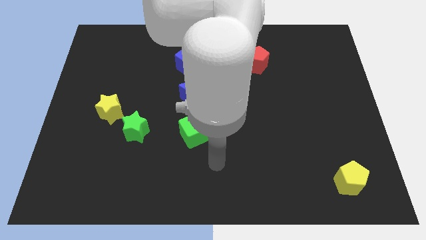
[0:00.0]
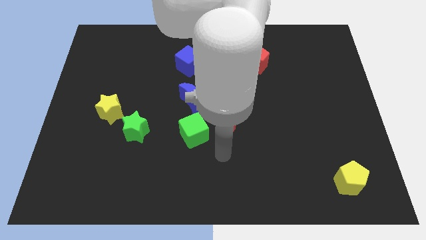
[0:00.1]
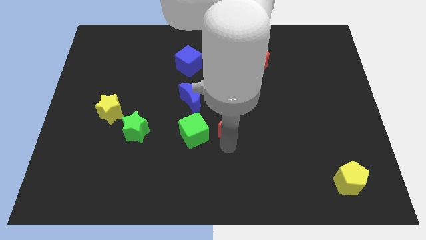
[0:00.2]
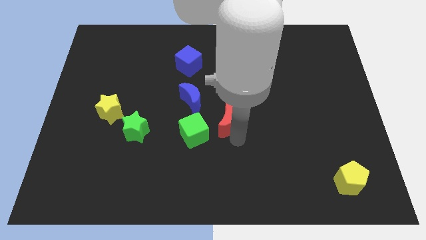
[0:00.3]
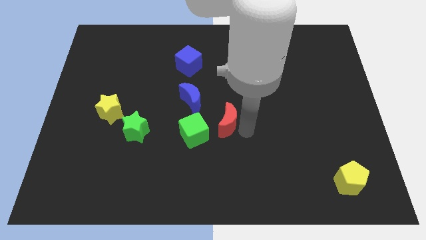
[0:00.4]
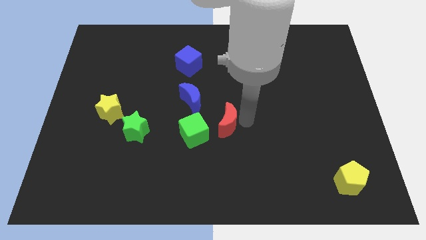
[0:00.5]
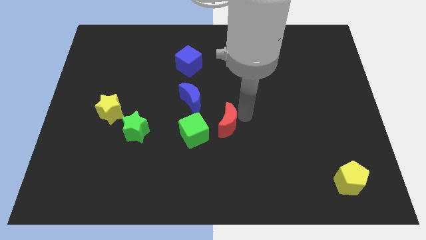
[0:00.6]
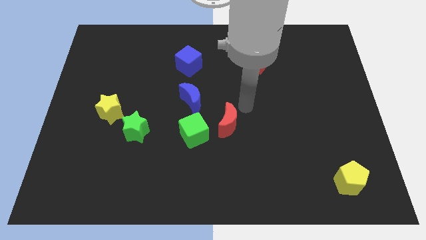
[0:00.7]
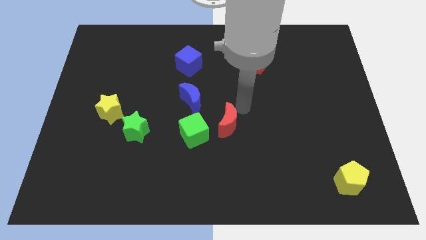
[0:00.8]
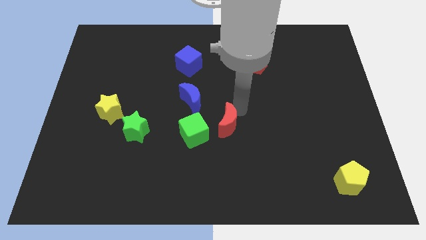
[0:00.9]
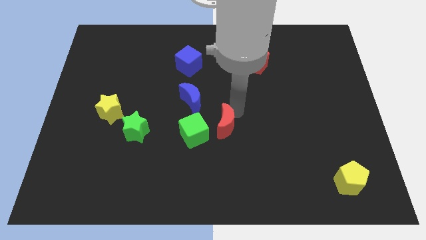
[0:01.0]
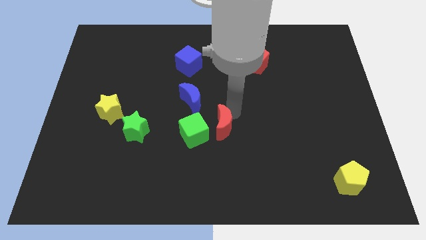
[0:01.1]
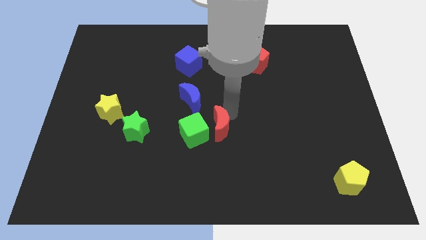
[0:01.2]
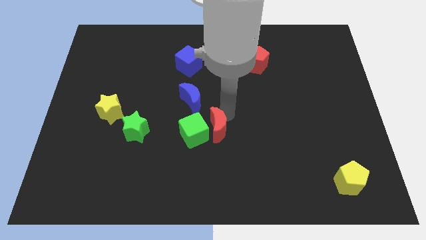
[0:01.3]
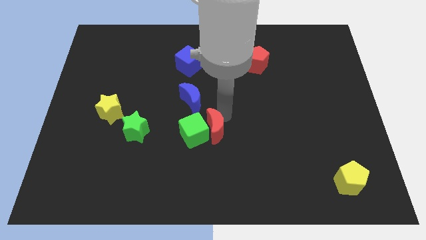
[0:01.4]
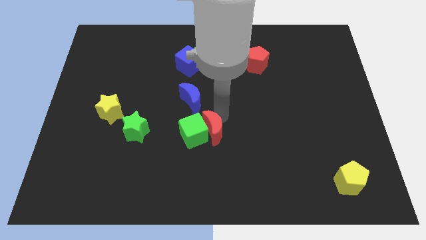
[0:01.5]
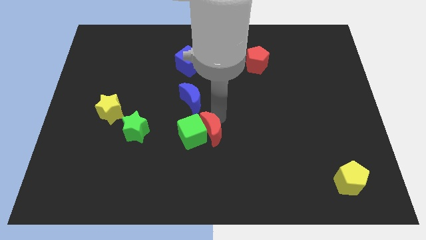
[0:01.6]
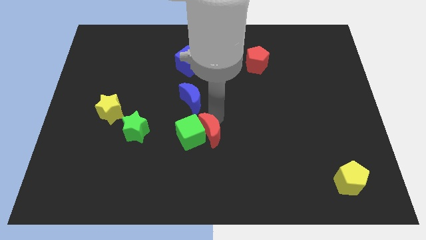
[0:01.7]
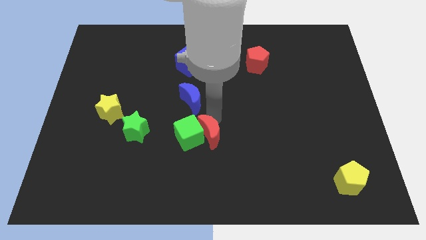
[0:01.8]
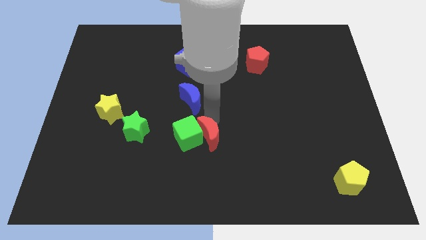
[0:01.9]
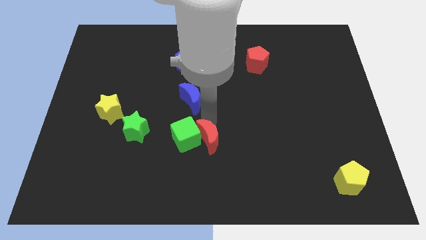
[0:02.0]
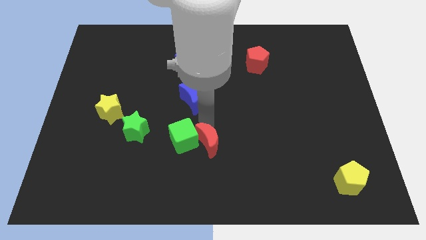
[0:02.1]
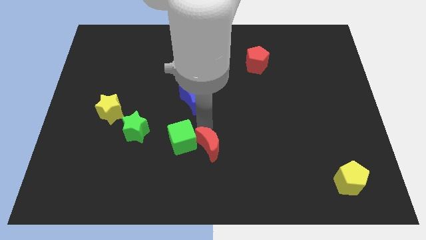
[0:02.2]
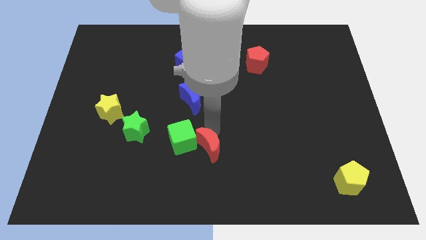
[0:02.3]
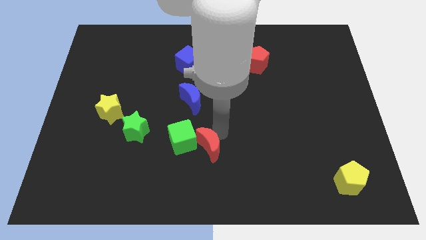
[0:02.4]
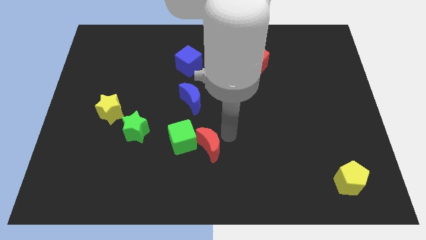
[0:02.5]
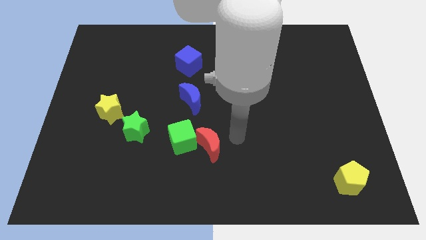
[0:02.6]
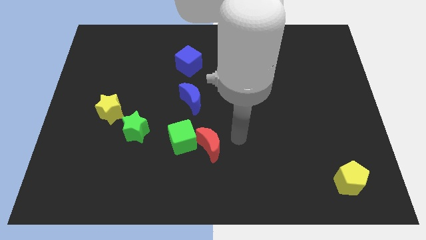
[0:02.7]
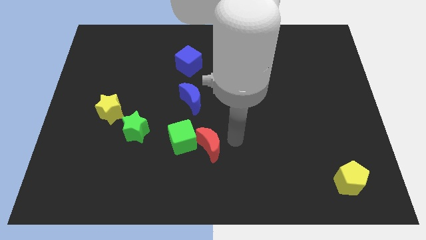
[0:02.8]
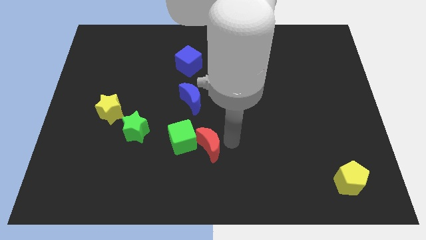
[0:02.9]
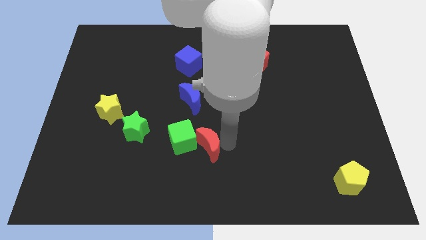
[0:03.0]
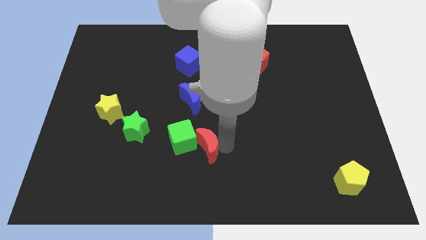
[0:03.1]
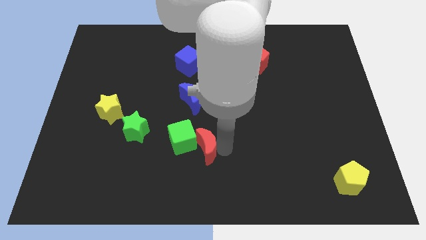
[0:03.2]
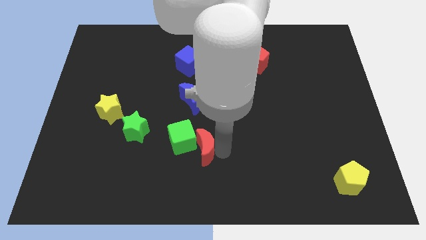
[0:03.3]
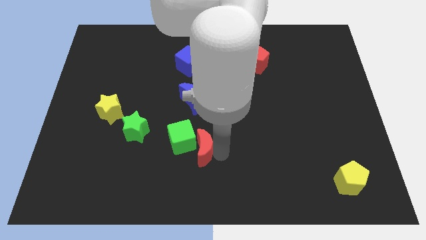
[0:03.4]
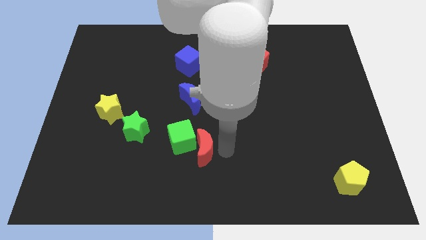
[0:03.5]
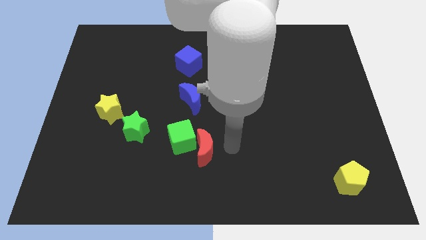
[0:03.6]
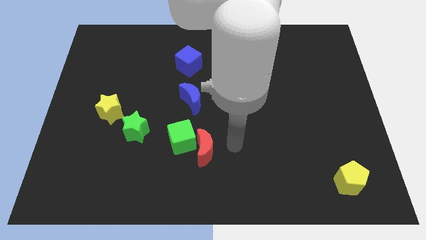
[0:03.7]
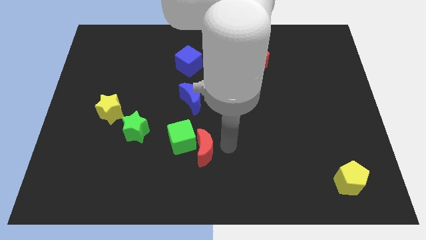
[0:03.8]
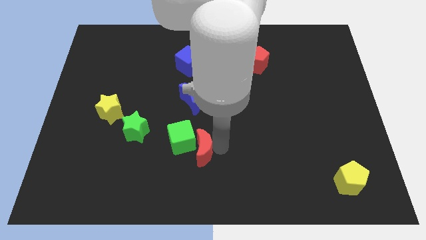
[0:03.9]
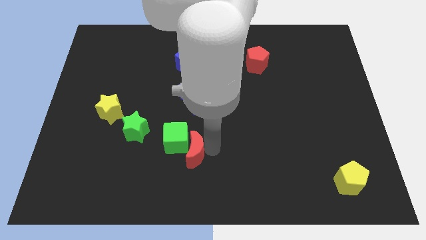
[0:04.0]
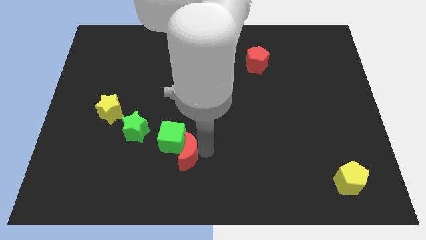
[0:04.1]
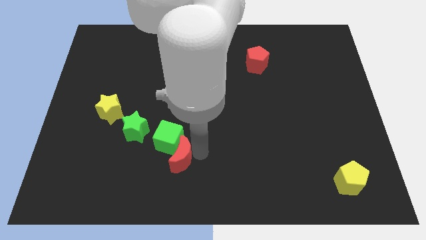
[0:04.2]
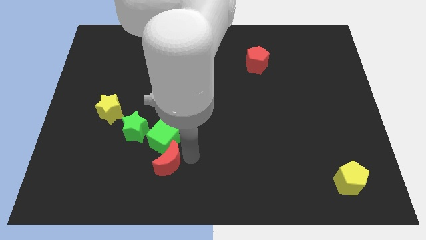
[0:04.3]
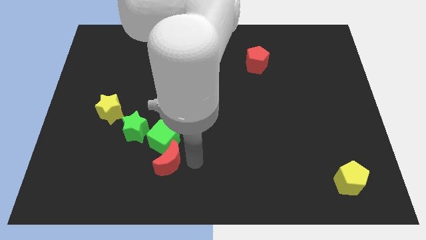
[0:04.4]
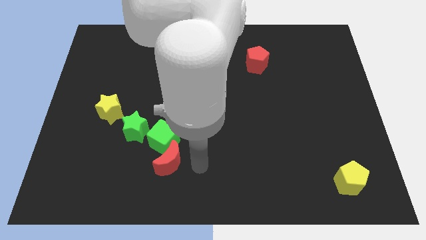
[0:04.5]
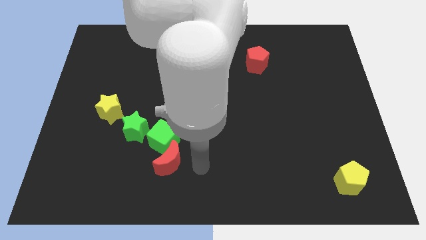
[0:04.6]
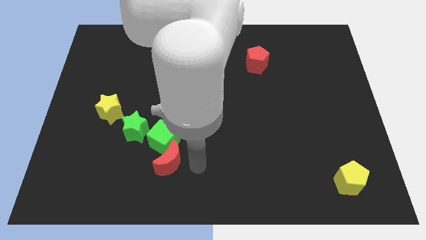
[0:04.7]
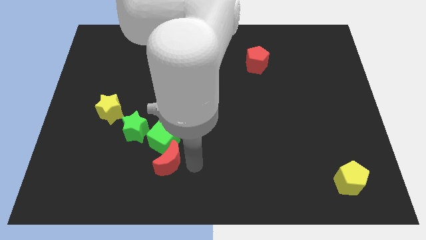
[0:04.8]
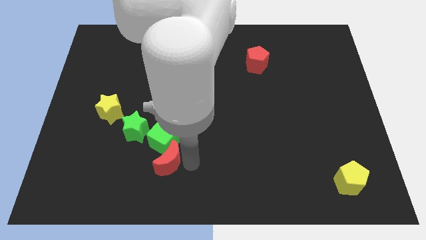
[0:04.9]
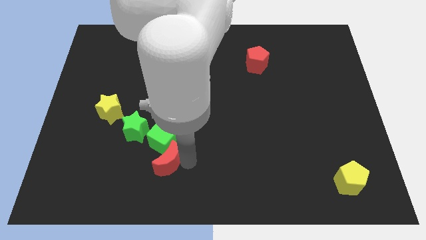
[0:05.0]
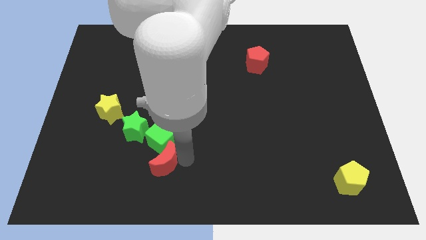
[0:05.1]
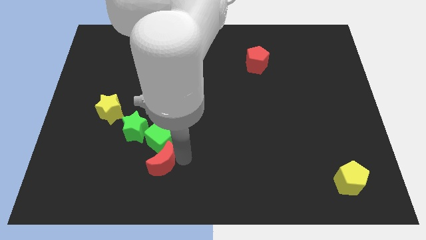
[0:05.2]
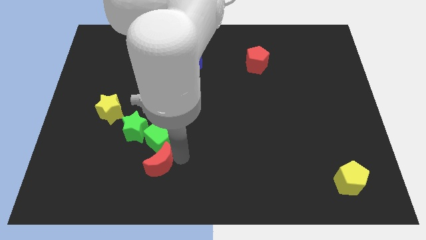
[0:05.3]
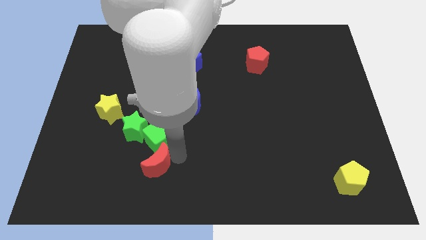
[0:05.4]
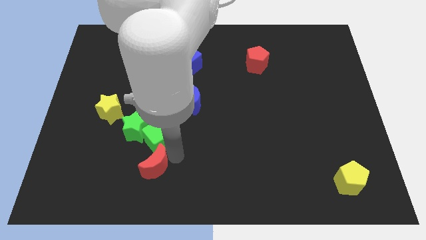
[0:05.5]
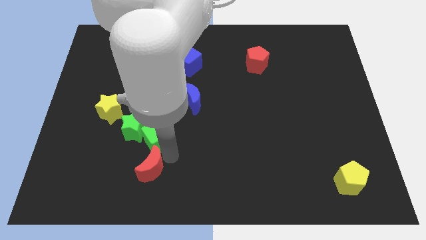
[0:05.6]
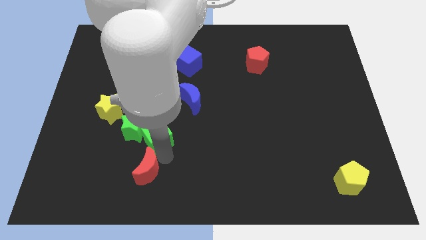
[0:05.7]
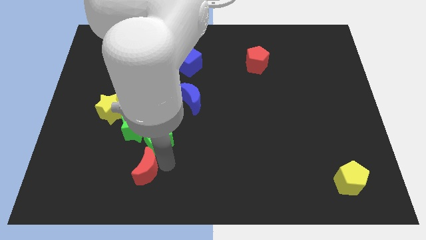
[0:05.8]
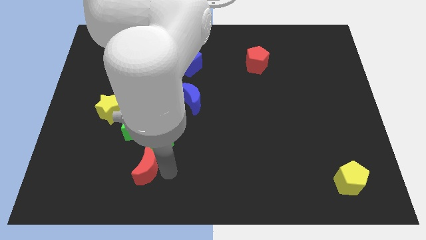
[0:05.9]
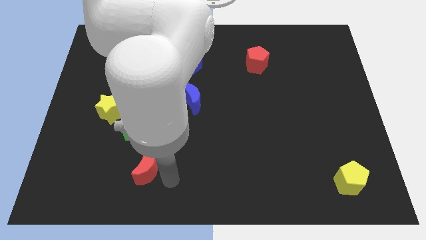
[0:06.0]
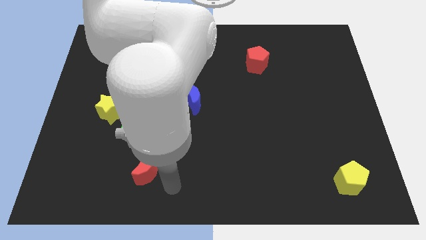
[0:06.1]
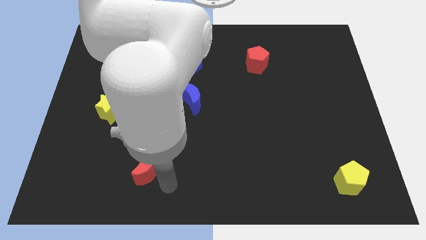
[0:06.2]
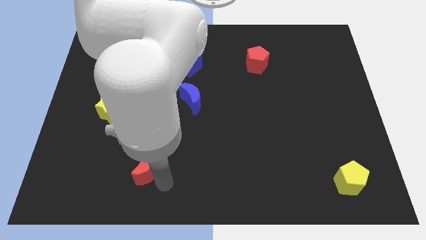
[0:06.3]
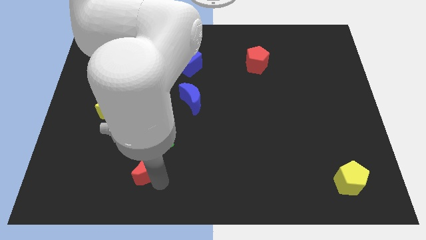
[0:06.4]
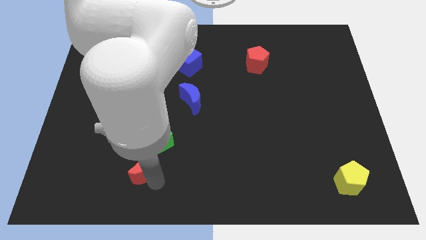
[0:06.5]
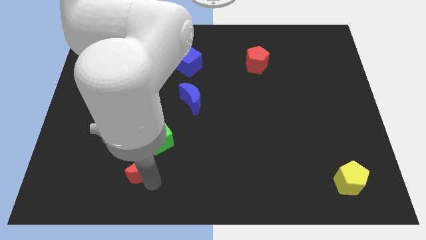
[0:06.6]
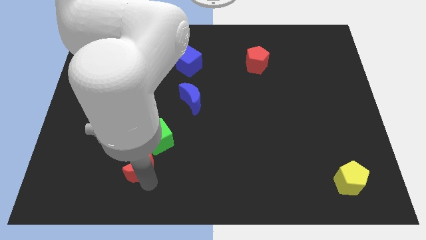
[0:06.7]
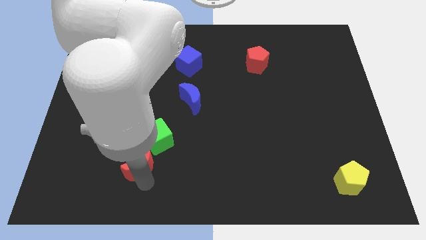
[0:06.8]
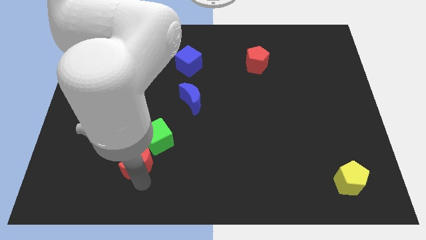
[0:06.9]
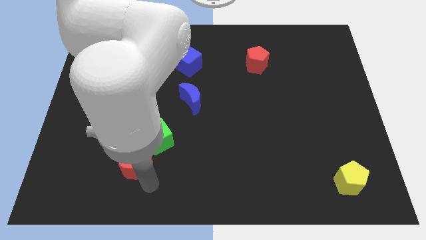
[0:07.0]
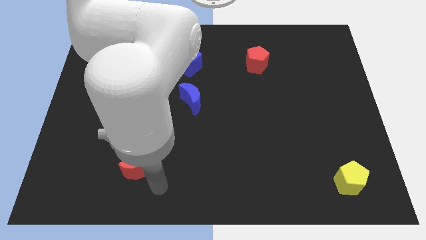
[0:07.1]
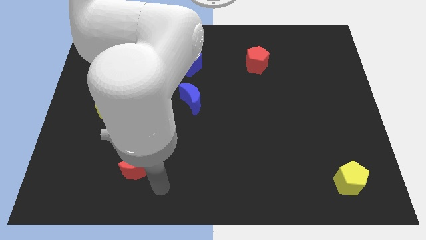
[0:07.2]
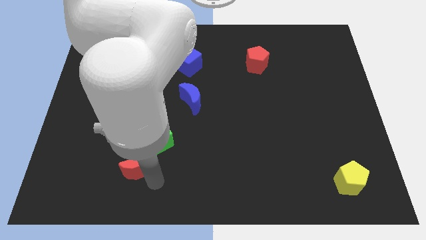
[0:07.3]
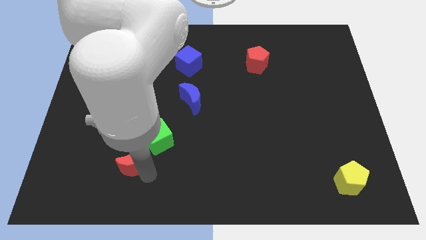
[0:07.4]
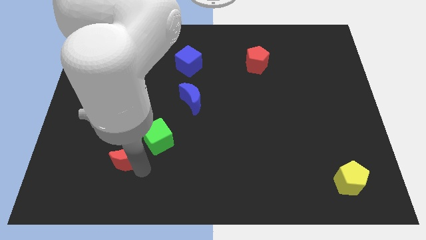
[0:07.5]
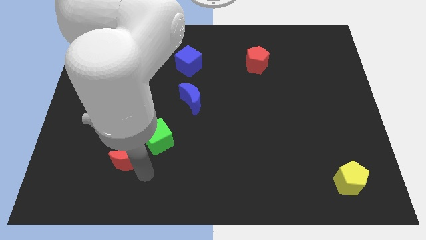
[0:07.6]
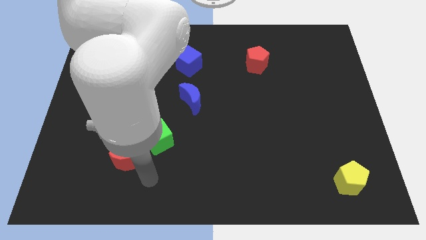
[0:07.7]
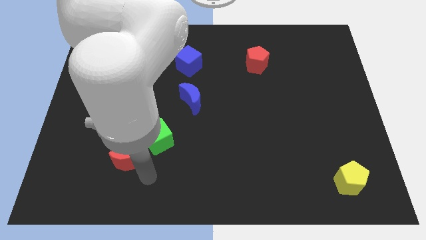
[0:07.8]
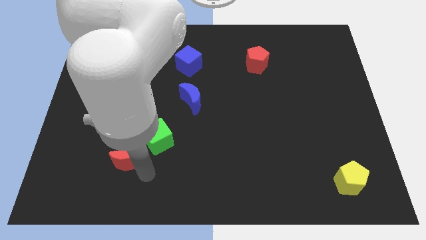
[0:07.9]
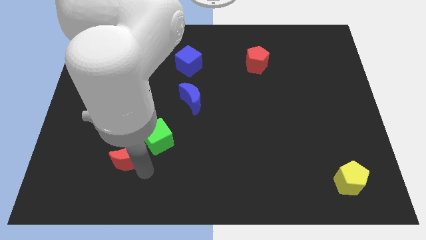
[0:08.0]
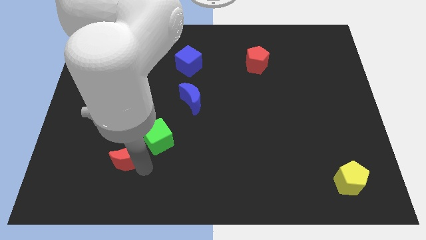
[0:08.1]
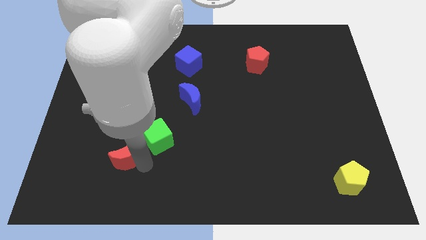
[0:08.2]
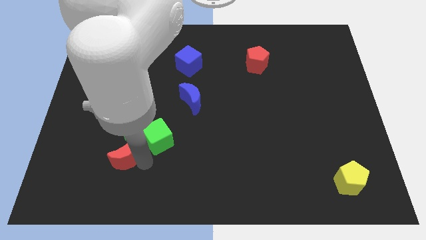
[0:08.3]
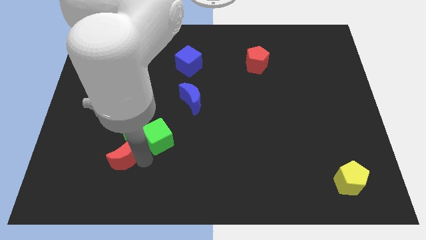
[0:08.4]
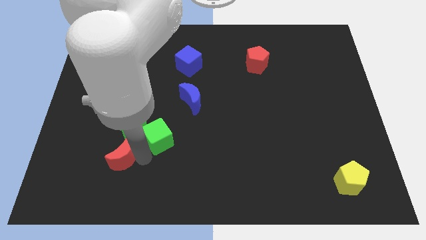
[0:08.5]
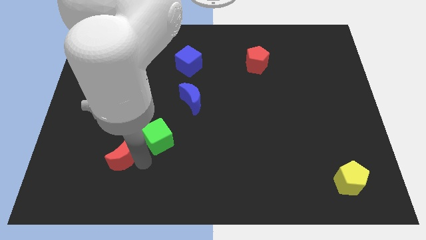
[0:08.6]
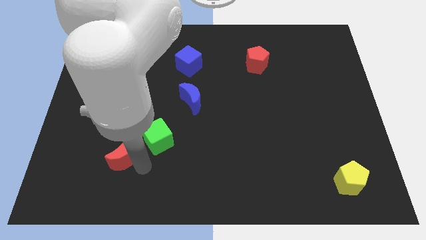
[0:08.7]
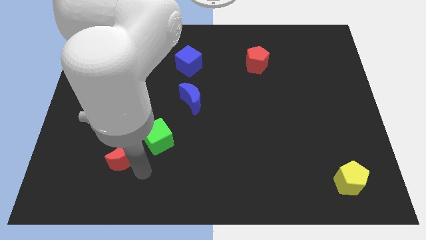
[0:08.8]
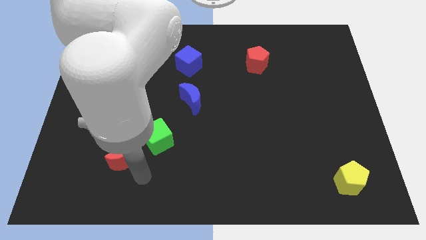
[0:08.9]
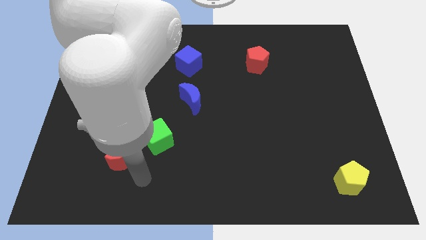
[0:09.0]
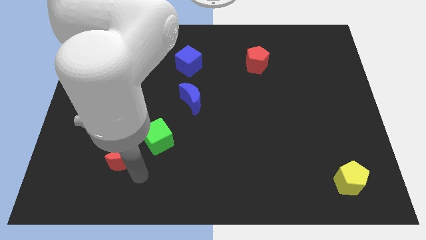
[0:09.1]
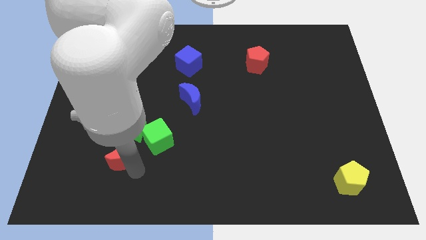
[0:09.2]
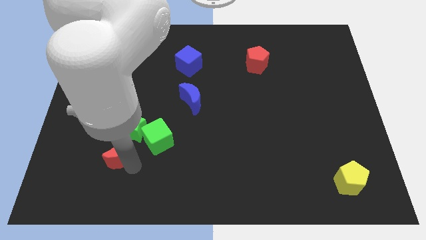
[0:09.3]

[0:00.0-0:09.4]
push the red moon left
